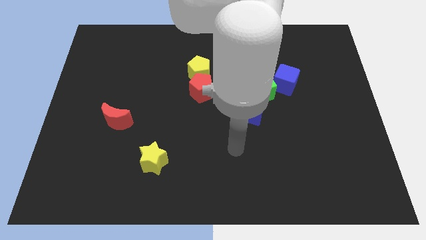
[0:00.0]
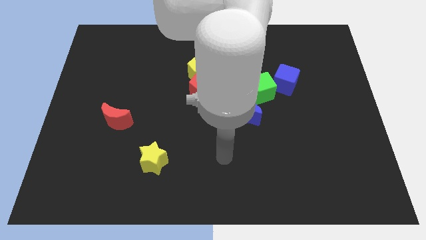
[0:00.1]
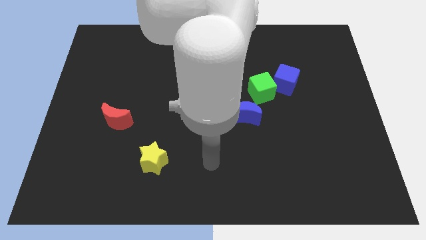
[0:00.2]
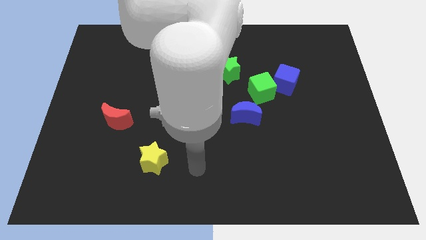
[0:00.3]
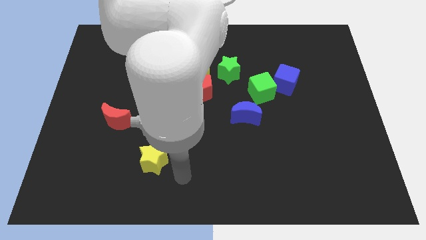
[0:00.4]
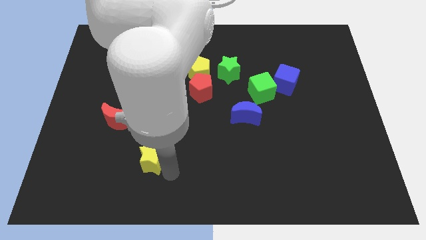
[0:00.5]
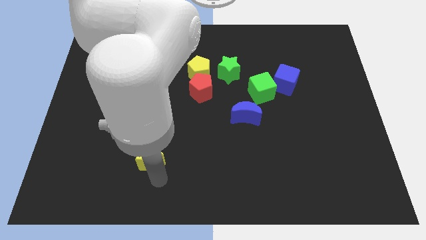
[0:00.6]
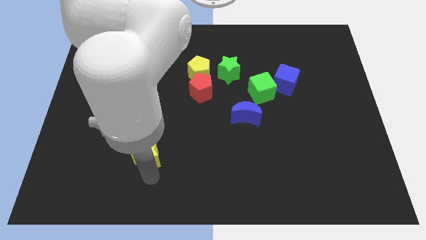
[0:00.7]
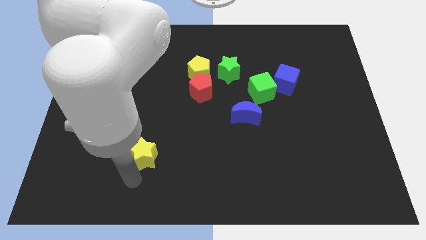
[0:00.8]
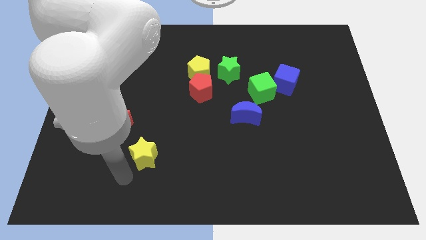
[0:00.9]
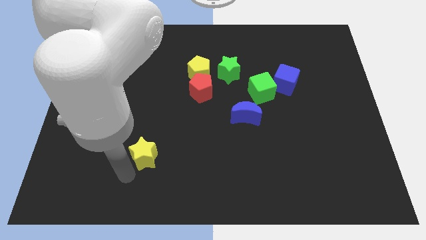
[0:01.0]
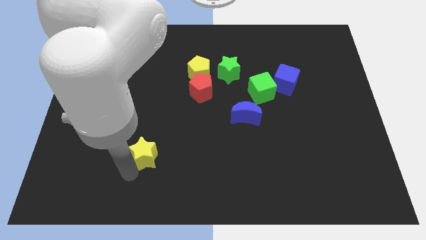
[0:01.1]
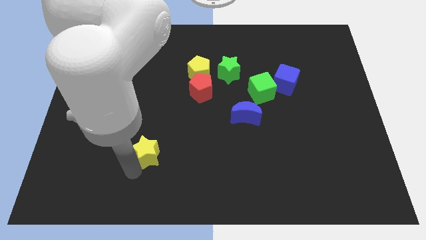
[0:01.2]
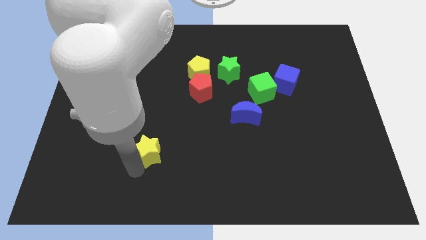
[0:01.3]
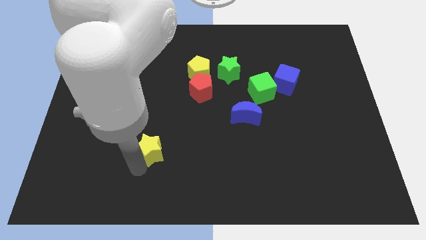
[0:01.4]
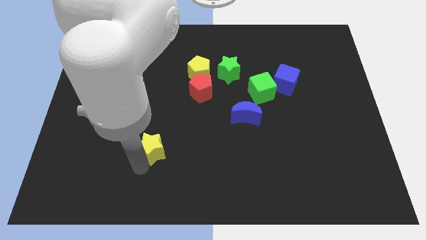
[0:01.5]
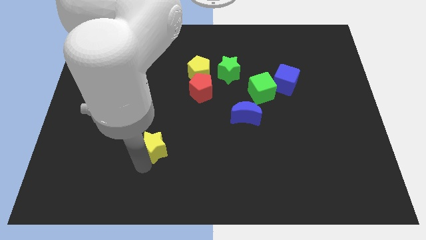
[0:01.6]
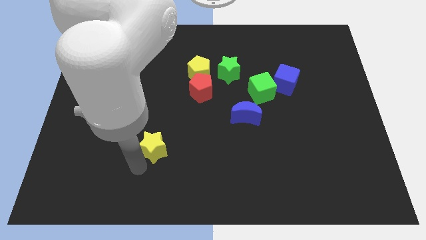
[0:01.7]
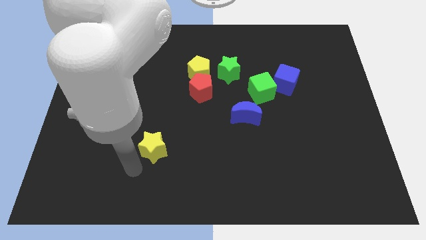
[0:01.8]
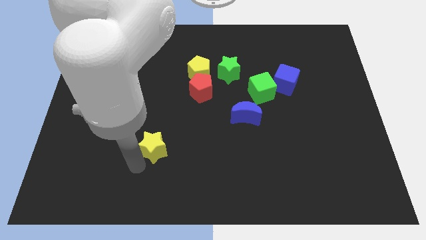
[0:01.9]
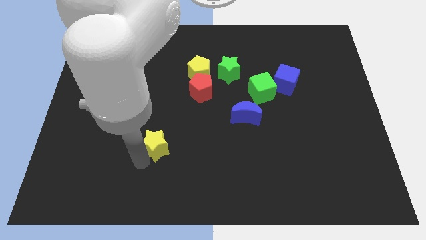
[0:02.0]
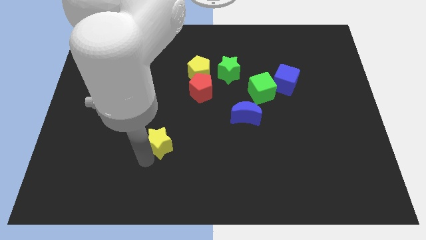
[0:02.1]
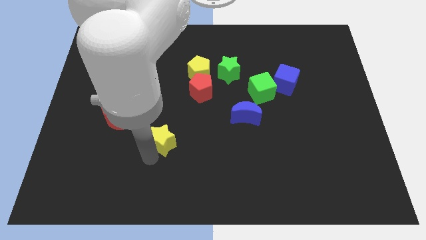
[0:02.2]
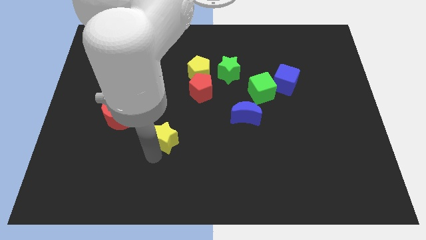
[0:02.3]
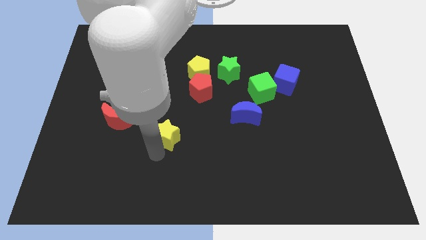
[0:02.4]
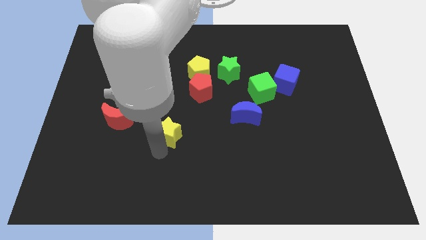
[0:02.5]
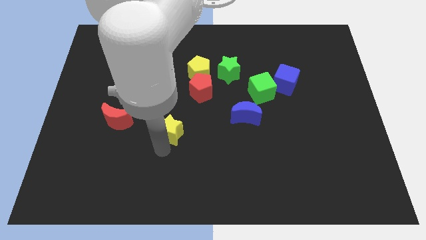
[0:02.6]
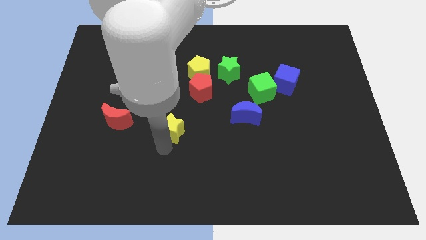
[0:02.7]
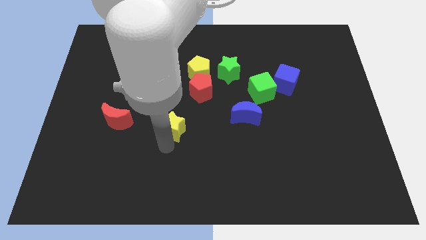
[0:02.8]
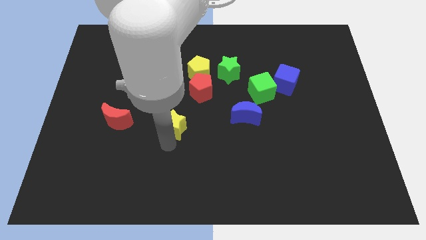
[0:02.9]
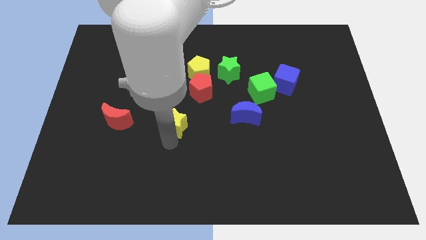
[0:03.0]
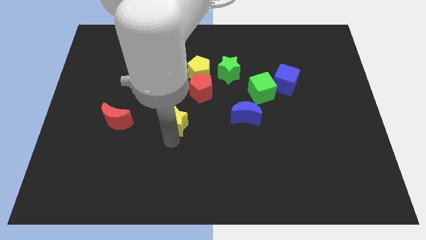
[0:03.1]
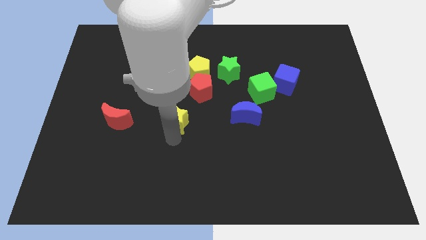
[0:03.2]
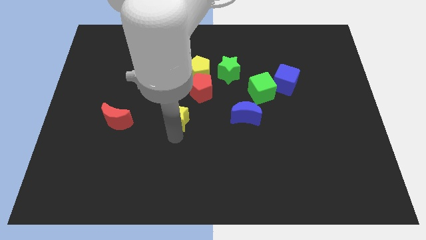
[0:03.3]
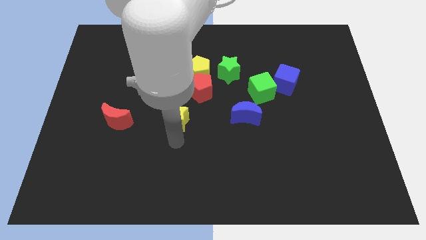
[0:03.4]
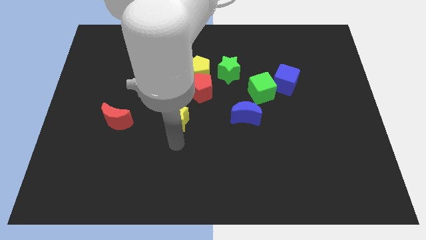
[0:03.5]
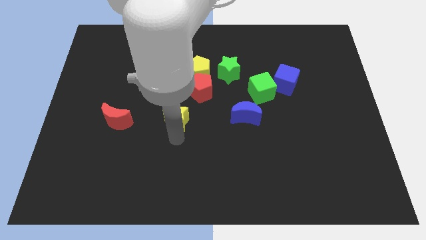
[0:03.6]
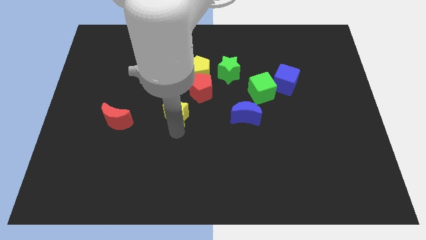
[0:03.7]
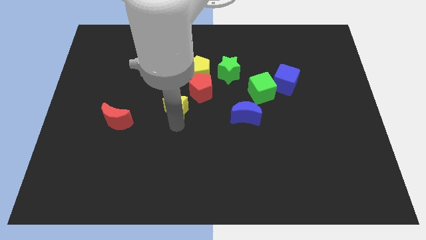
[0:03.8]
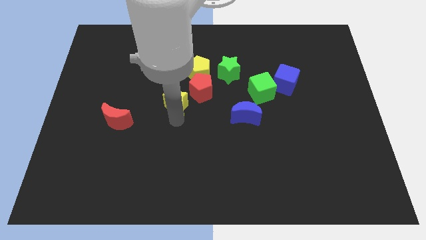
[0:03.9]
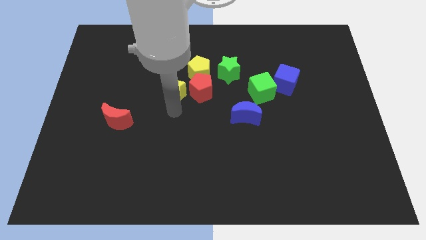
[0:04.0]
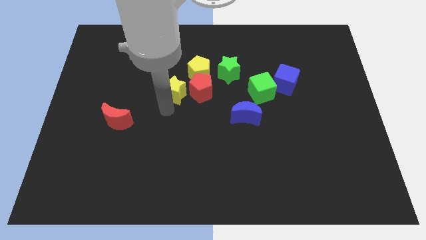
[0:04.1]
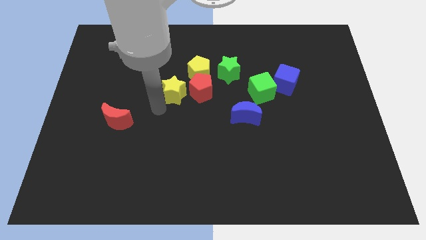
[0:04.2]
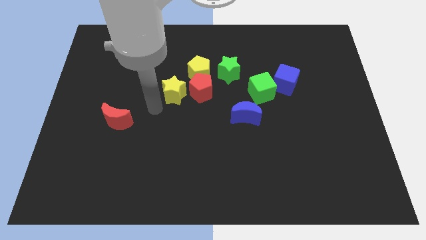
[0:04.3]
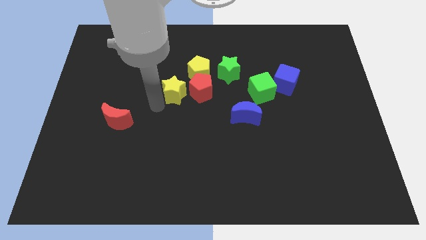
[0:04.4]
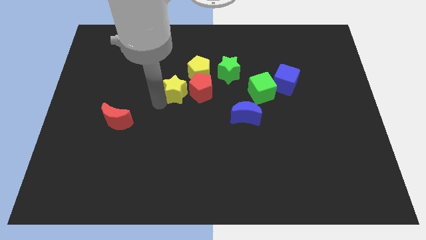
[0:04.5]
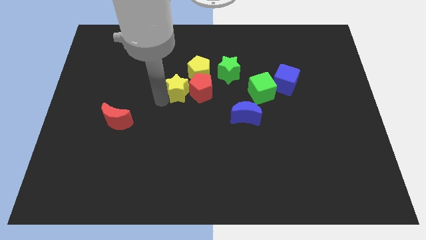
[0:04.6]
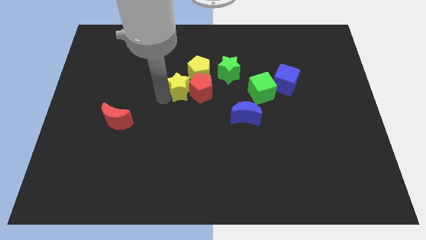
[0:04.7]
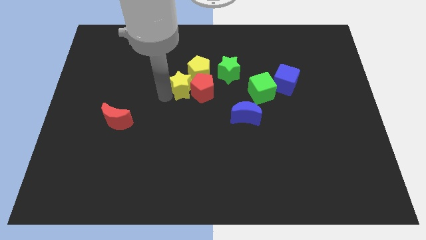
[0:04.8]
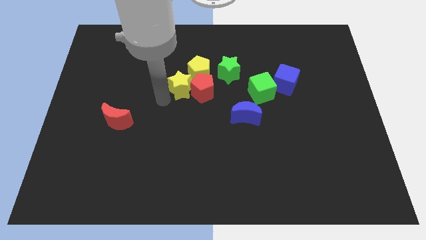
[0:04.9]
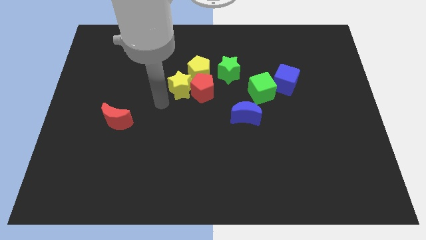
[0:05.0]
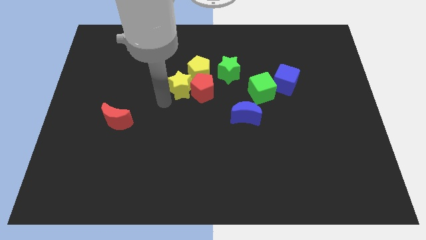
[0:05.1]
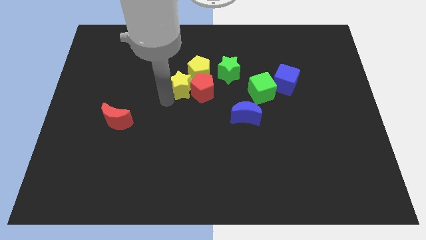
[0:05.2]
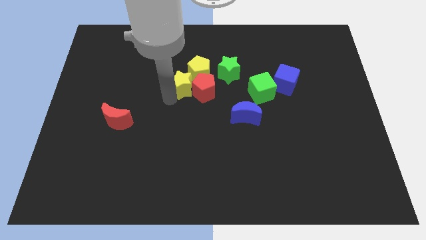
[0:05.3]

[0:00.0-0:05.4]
push the yellow star towards the yellow pentagon

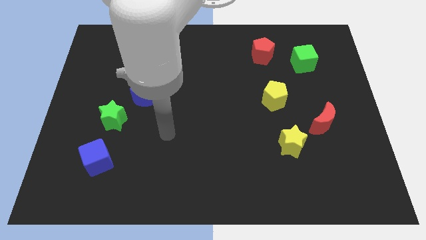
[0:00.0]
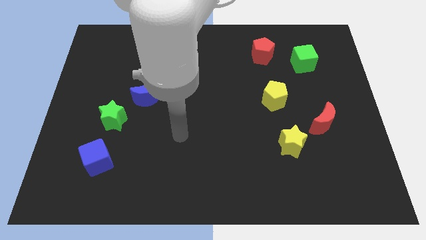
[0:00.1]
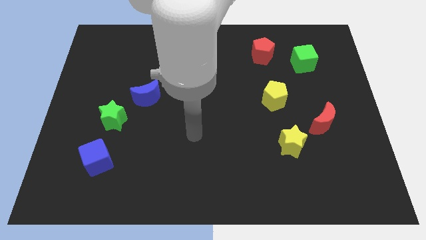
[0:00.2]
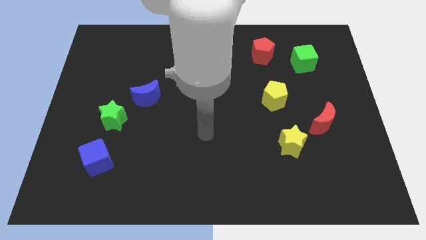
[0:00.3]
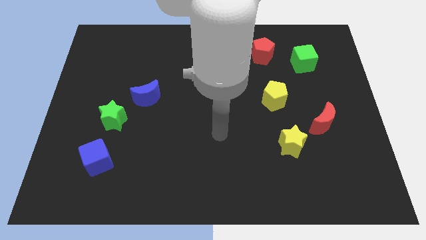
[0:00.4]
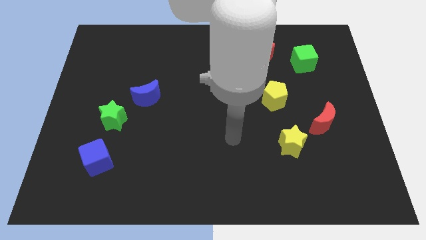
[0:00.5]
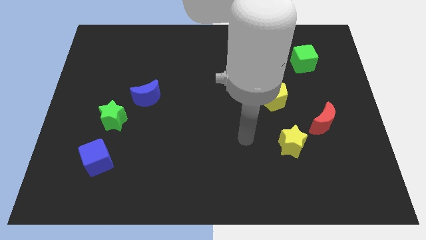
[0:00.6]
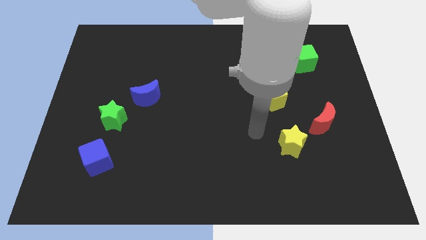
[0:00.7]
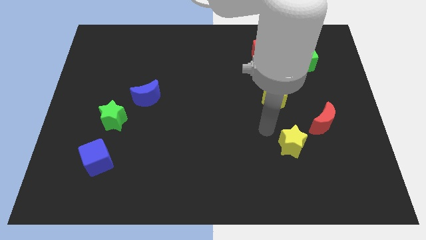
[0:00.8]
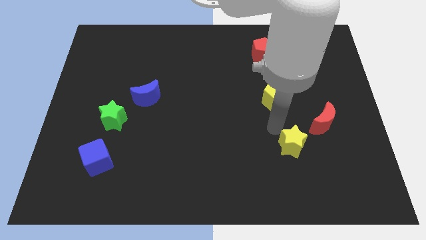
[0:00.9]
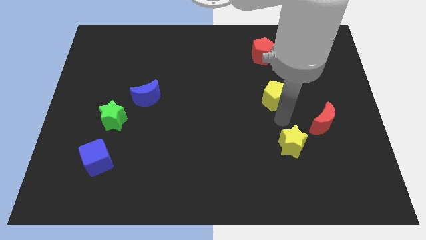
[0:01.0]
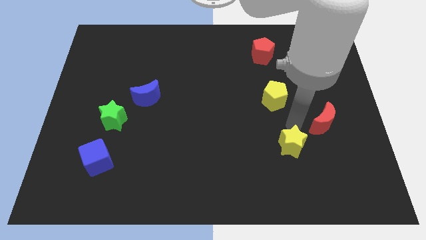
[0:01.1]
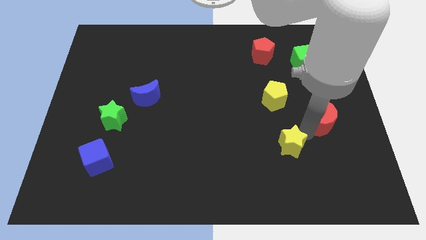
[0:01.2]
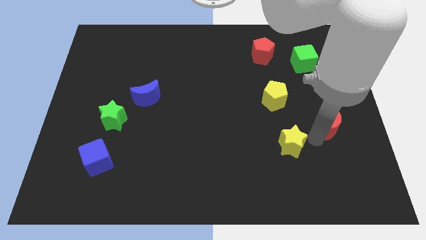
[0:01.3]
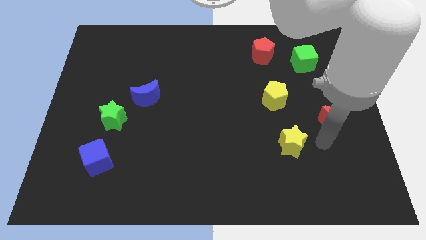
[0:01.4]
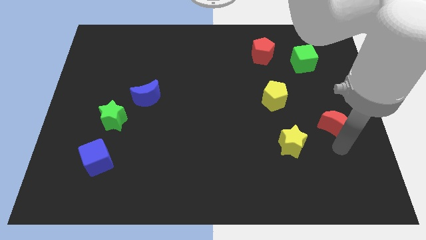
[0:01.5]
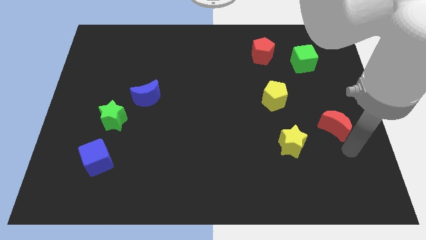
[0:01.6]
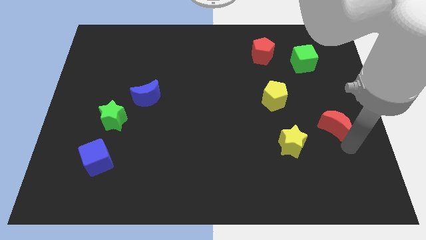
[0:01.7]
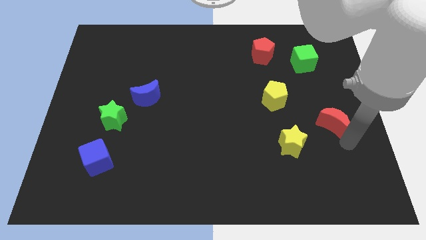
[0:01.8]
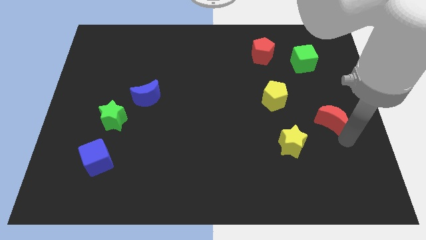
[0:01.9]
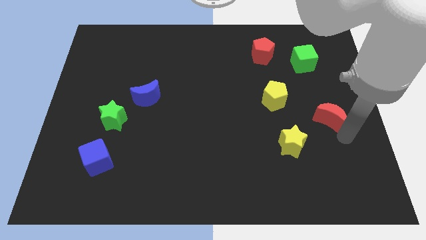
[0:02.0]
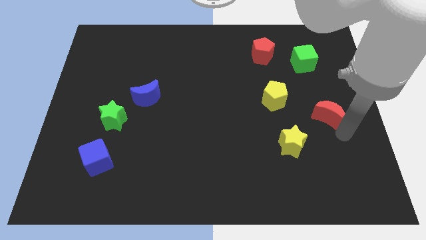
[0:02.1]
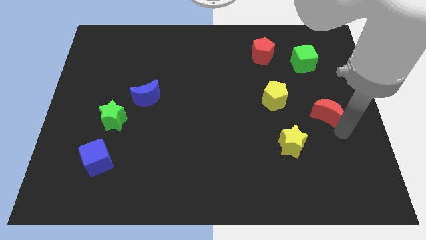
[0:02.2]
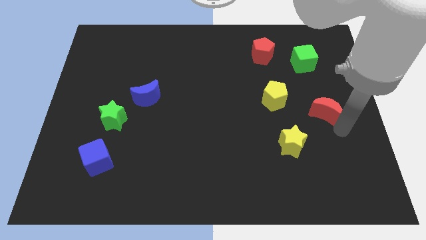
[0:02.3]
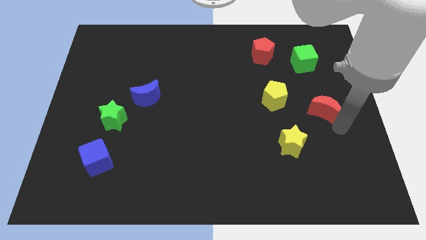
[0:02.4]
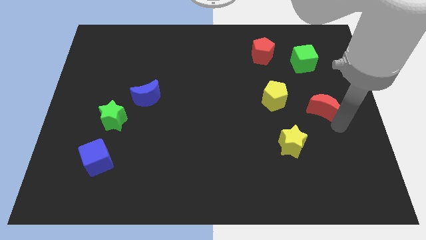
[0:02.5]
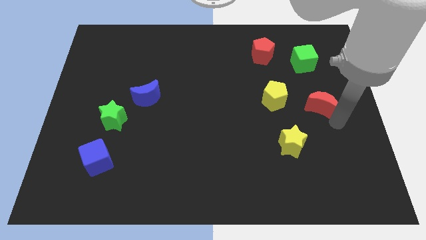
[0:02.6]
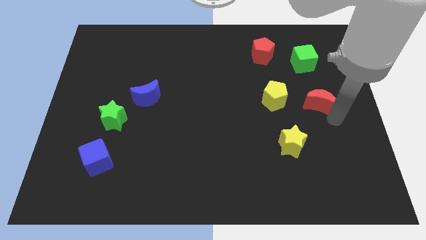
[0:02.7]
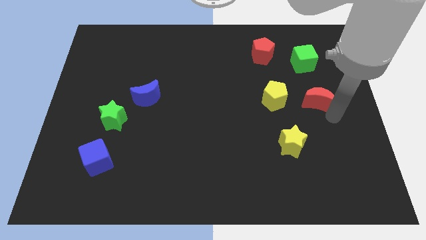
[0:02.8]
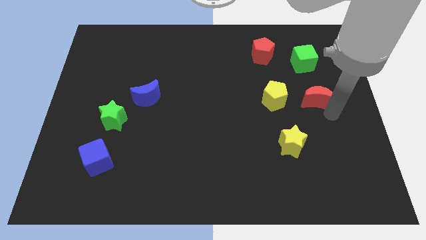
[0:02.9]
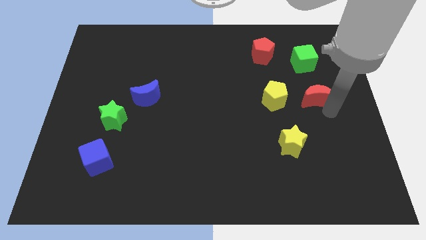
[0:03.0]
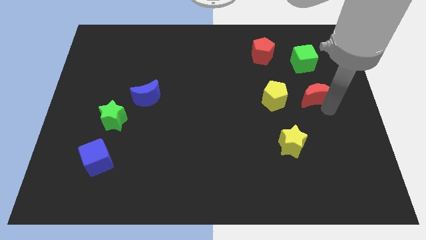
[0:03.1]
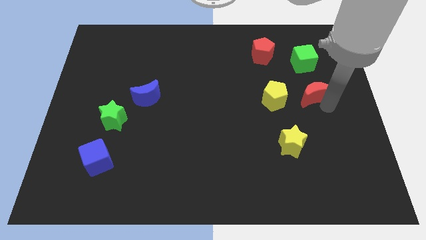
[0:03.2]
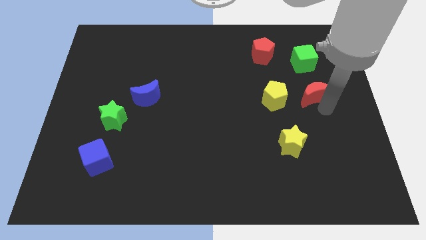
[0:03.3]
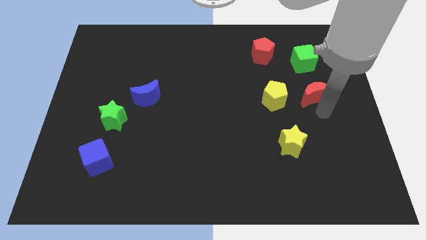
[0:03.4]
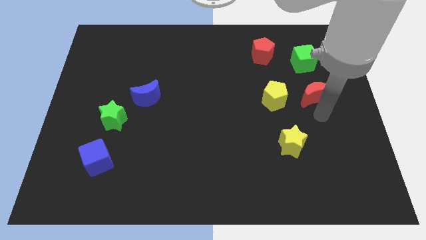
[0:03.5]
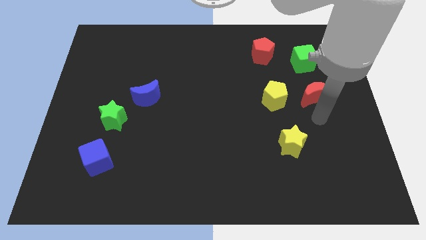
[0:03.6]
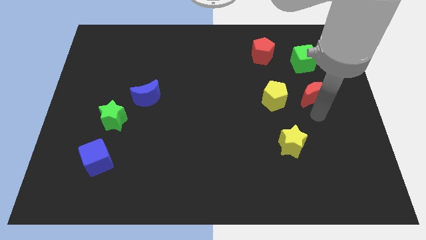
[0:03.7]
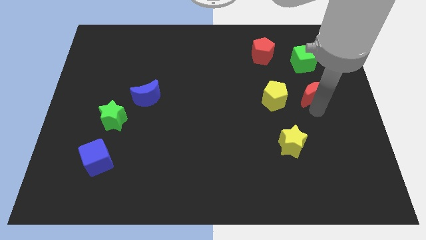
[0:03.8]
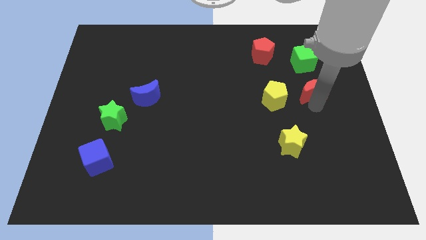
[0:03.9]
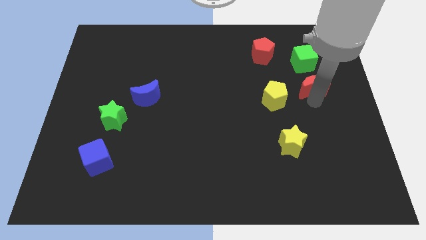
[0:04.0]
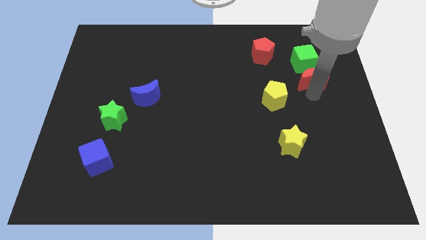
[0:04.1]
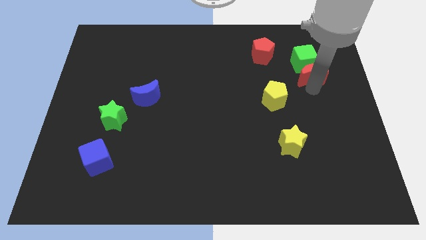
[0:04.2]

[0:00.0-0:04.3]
move the red moon to the green cube
